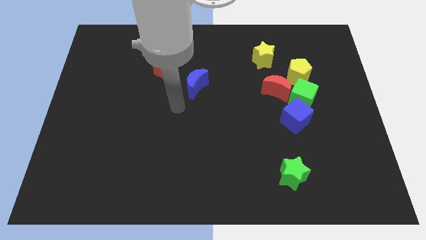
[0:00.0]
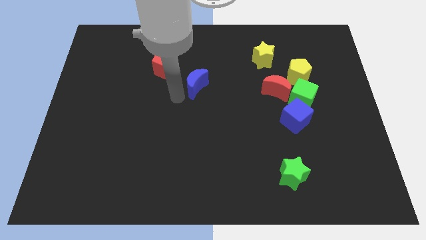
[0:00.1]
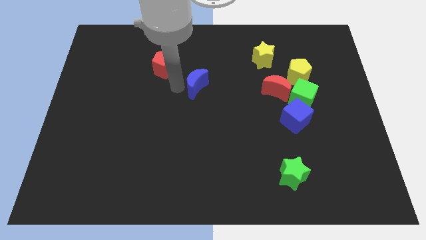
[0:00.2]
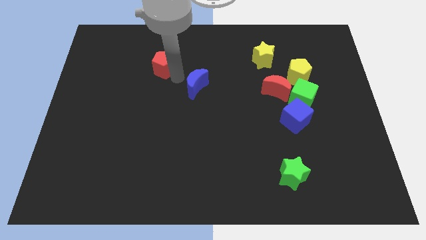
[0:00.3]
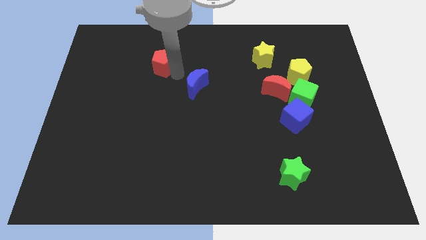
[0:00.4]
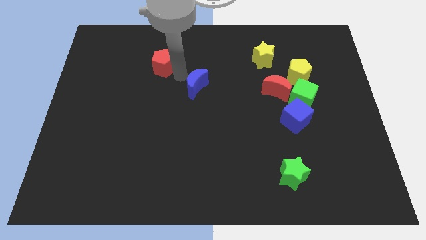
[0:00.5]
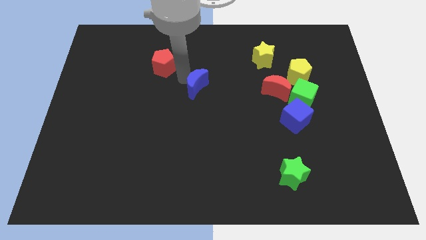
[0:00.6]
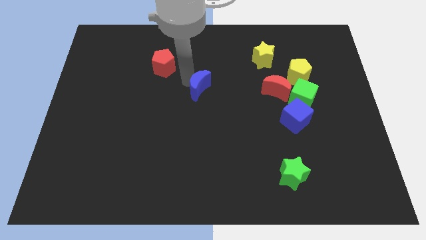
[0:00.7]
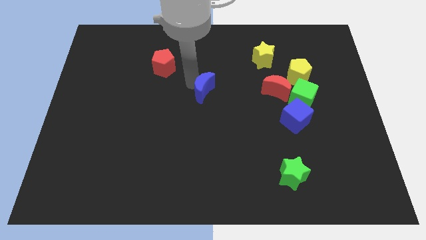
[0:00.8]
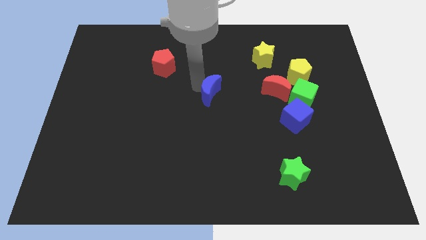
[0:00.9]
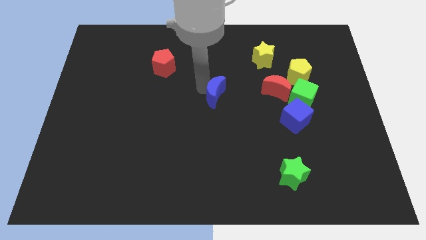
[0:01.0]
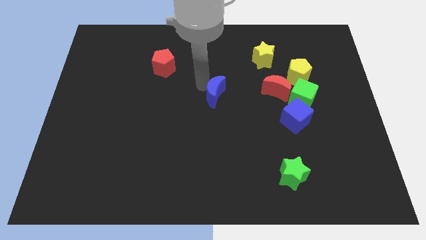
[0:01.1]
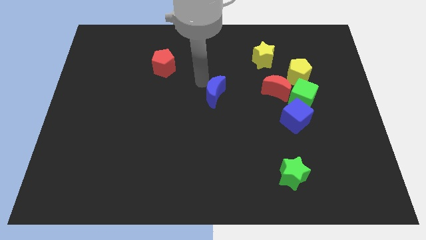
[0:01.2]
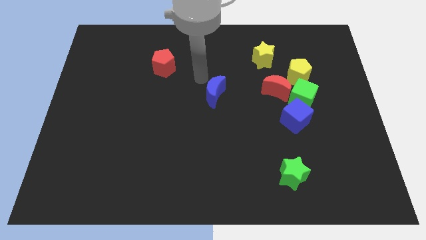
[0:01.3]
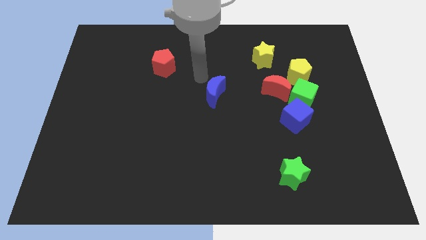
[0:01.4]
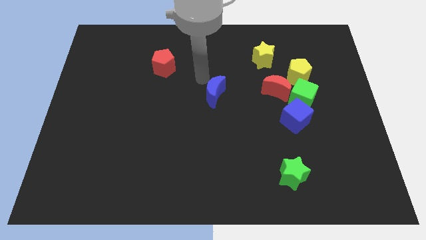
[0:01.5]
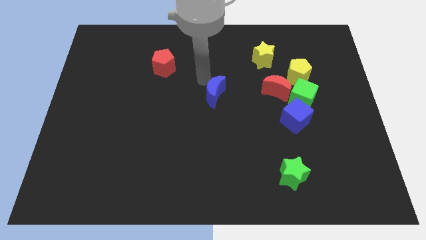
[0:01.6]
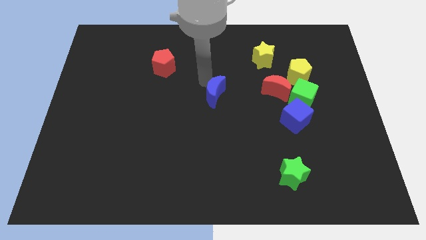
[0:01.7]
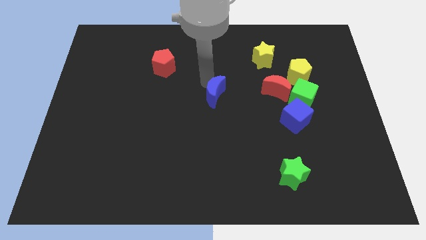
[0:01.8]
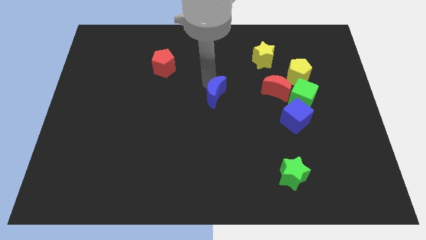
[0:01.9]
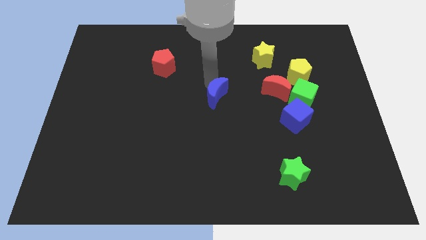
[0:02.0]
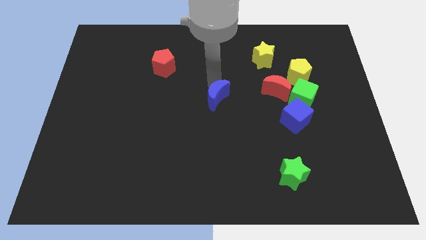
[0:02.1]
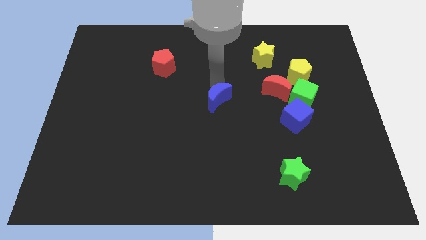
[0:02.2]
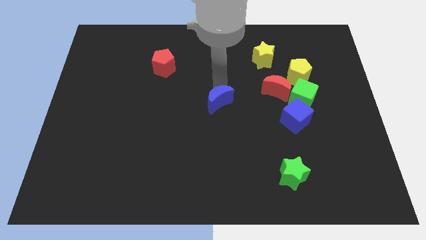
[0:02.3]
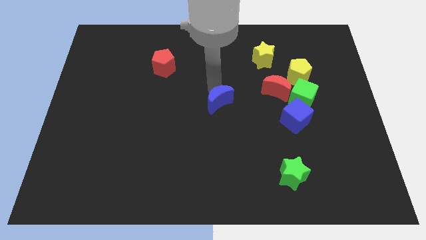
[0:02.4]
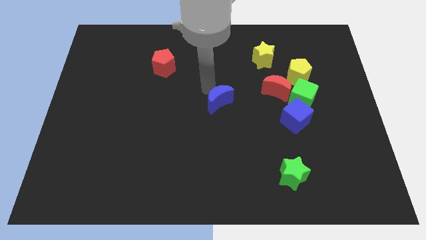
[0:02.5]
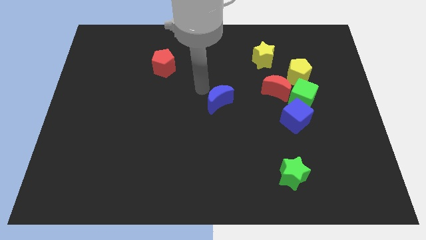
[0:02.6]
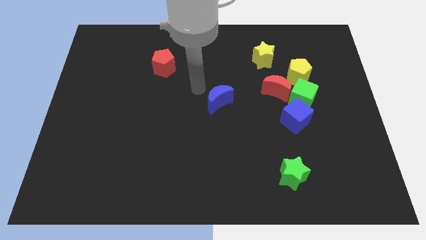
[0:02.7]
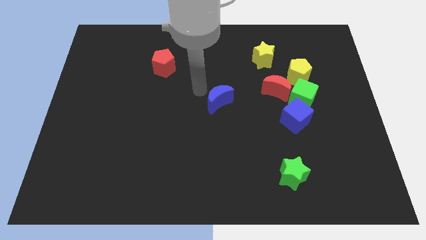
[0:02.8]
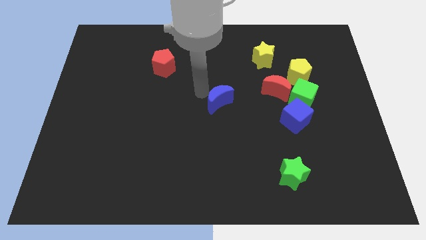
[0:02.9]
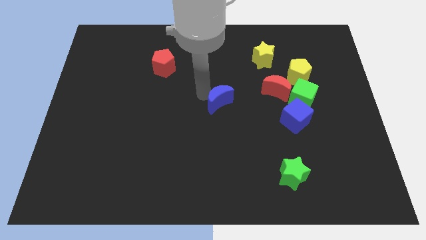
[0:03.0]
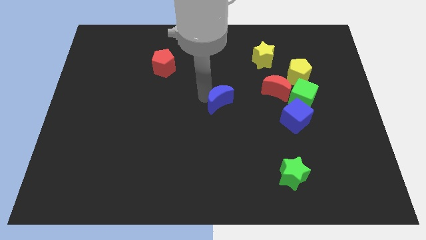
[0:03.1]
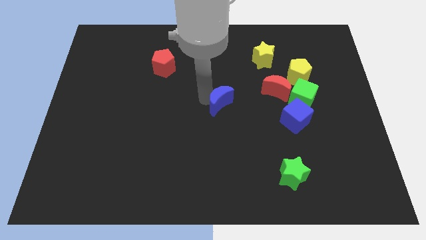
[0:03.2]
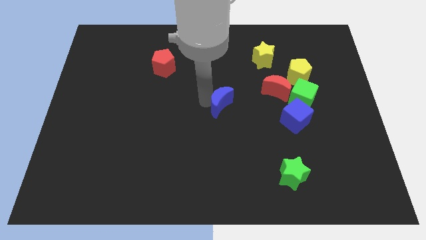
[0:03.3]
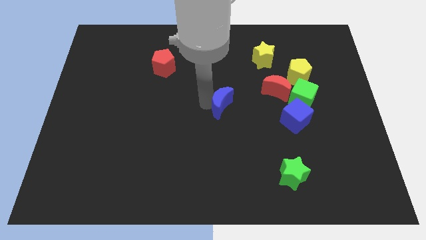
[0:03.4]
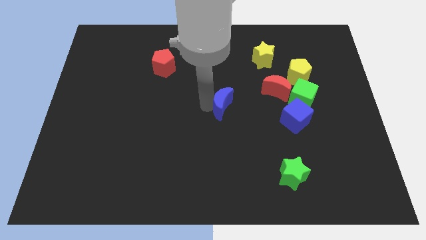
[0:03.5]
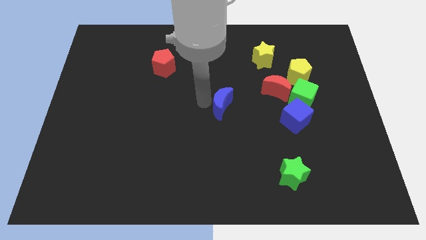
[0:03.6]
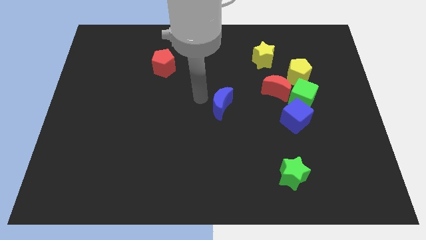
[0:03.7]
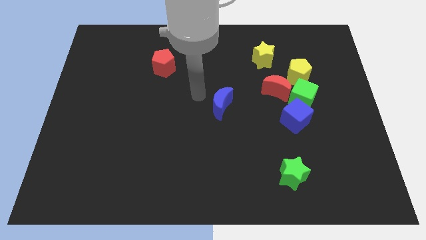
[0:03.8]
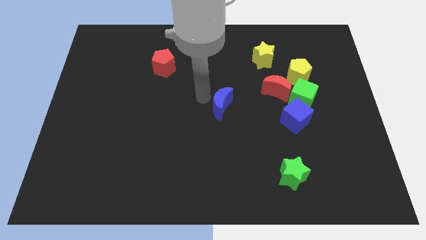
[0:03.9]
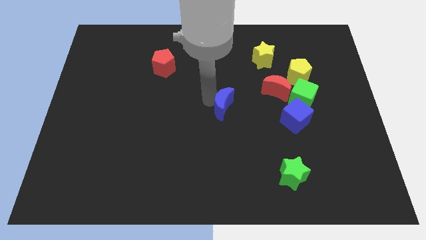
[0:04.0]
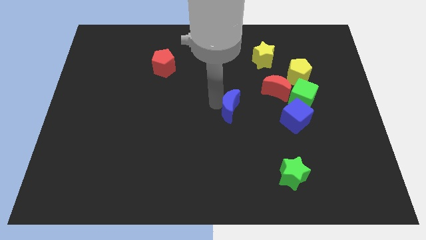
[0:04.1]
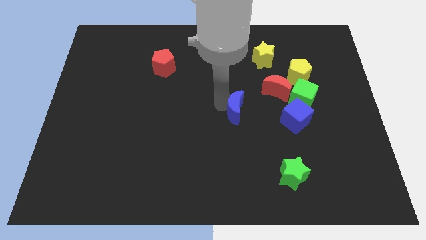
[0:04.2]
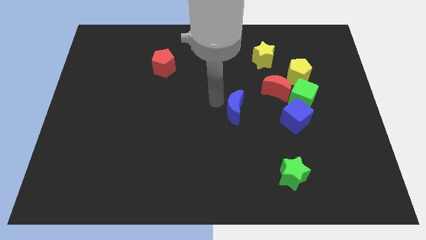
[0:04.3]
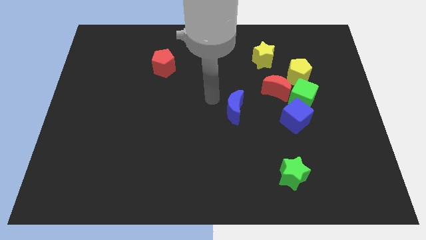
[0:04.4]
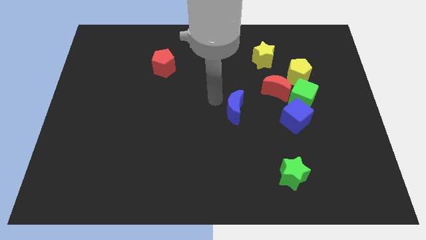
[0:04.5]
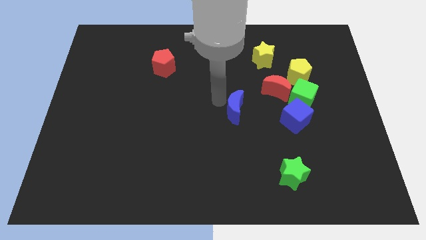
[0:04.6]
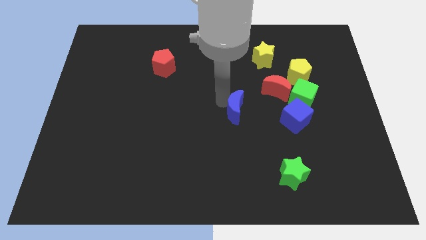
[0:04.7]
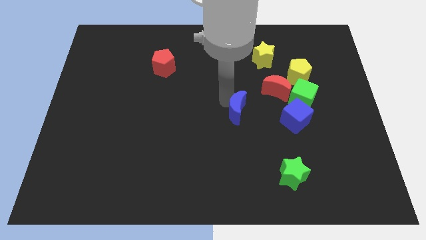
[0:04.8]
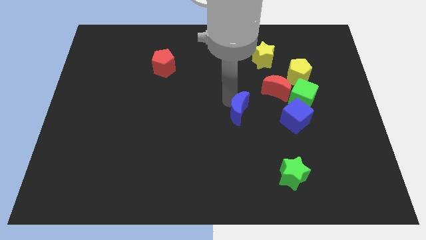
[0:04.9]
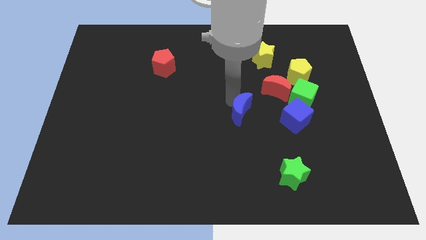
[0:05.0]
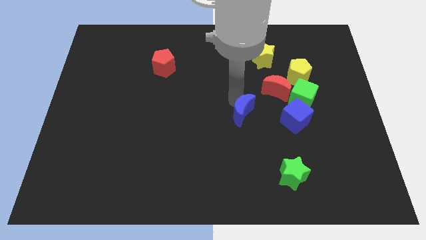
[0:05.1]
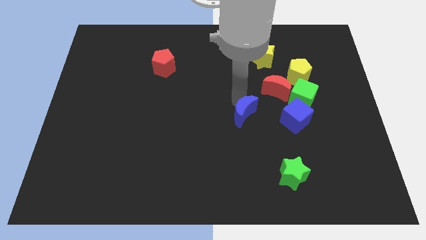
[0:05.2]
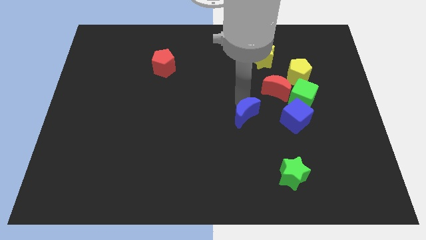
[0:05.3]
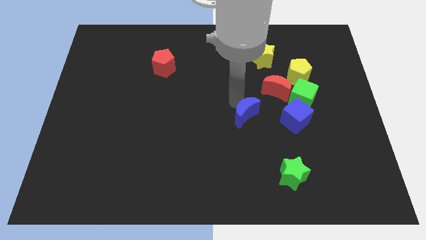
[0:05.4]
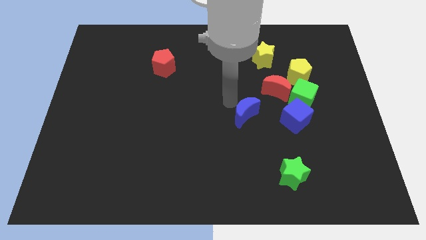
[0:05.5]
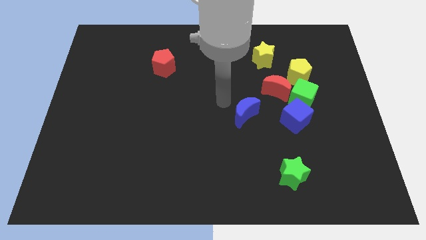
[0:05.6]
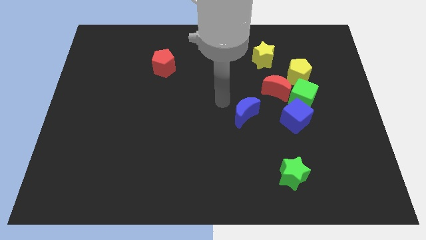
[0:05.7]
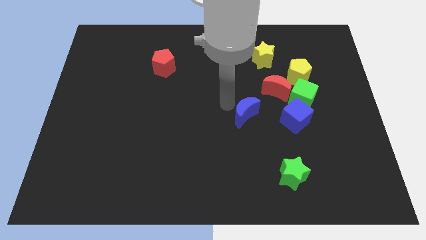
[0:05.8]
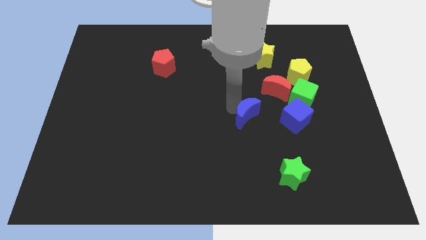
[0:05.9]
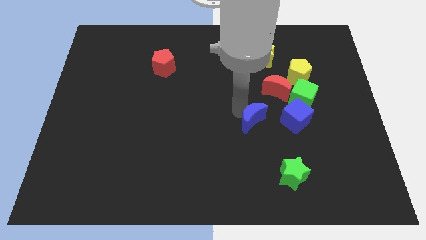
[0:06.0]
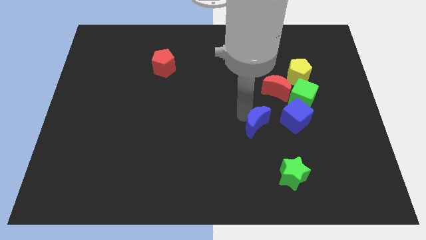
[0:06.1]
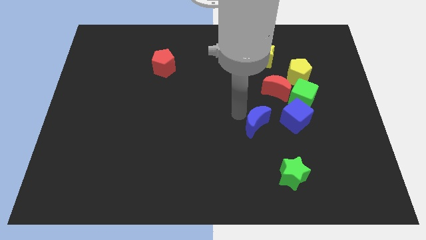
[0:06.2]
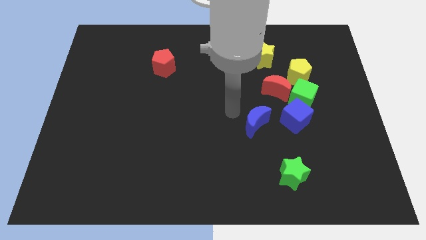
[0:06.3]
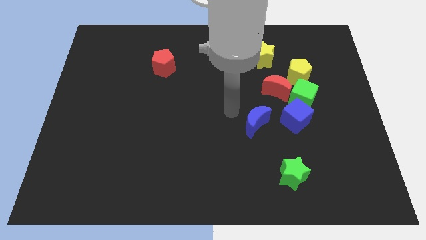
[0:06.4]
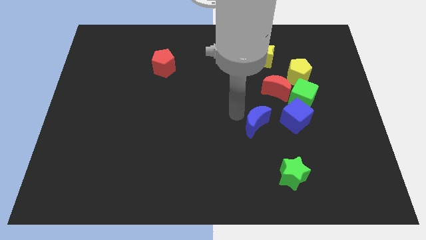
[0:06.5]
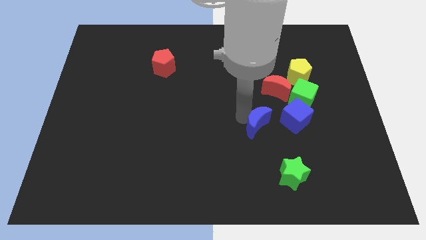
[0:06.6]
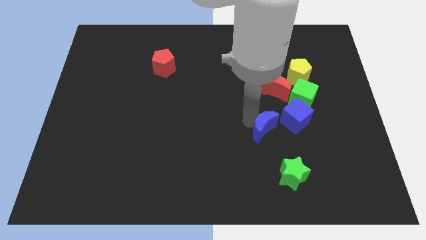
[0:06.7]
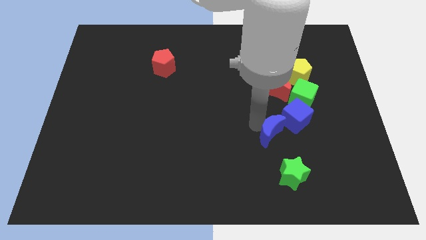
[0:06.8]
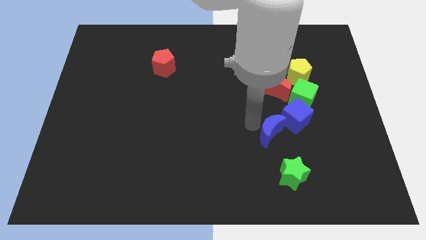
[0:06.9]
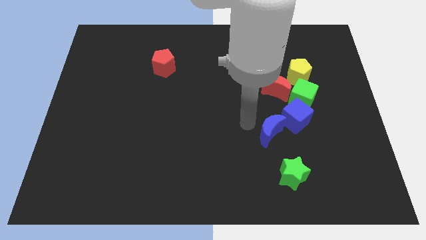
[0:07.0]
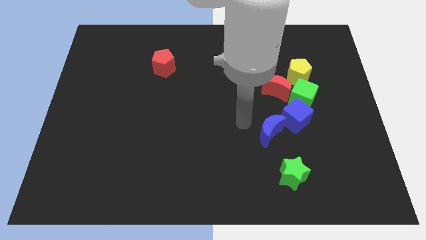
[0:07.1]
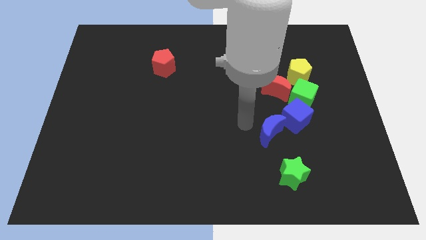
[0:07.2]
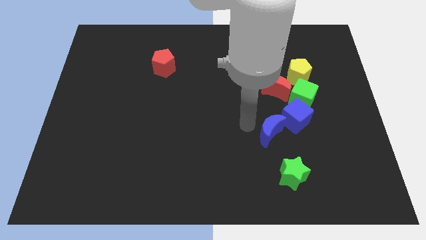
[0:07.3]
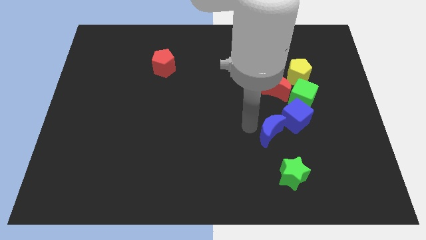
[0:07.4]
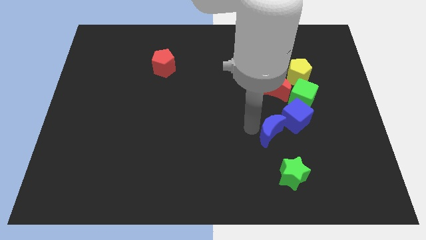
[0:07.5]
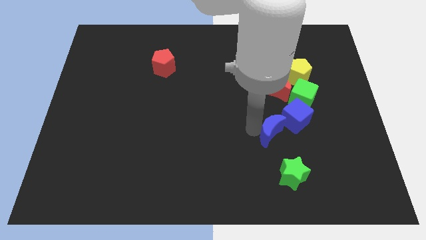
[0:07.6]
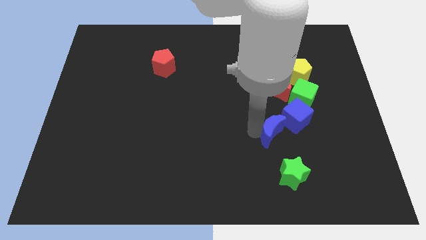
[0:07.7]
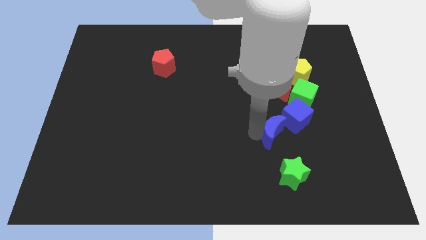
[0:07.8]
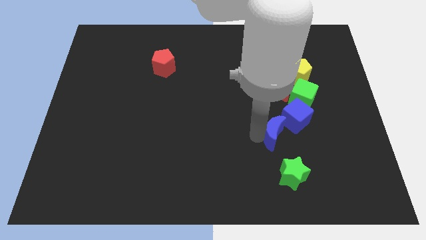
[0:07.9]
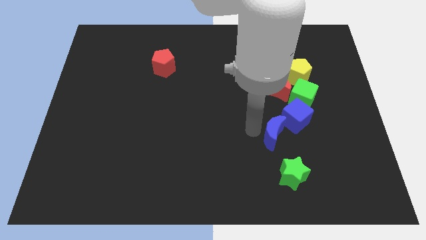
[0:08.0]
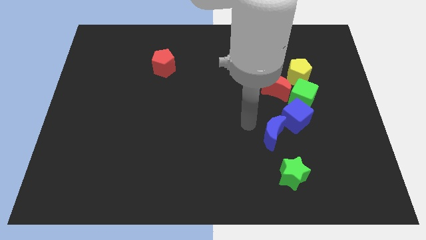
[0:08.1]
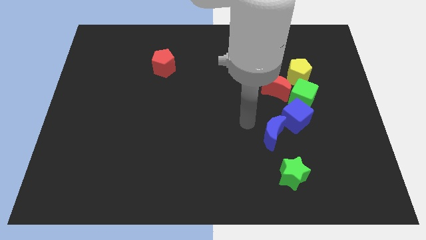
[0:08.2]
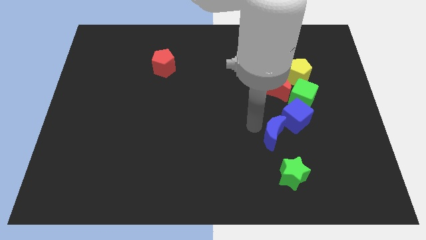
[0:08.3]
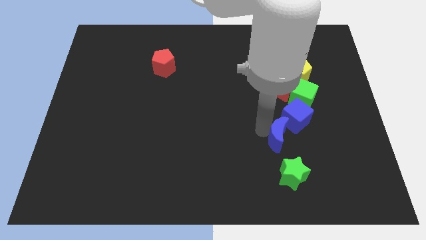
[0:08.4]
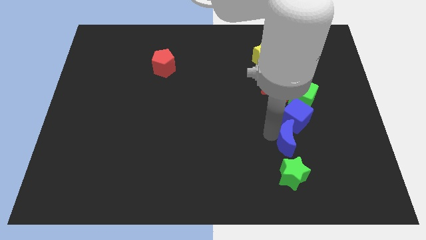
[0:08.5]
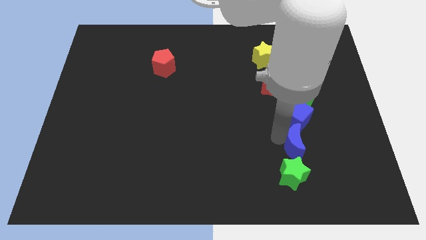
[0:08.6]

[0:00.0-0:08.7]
move the blue moon to the top right of the green star
